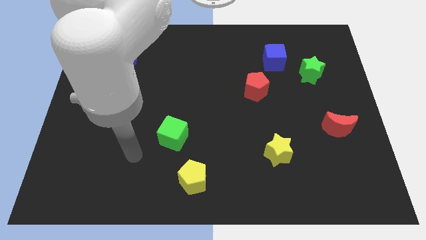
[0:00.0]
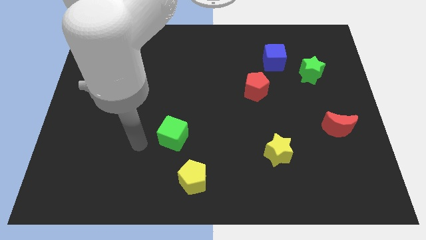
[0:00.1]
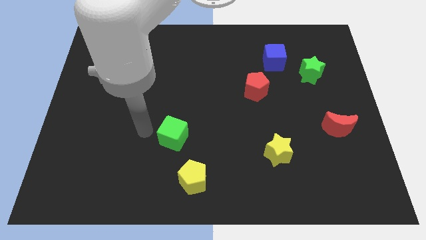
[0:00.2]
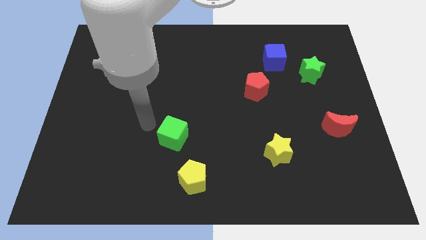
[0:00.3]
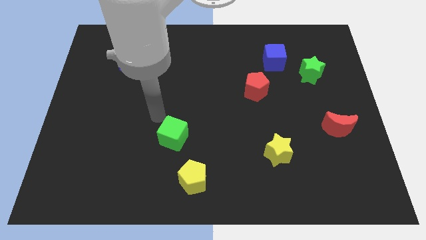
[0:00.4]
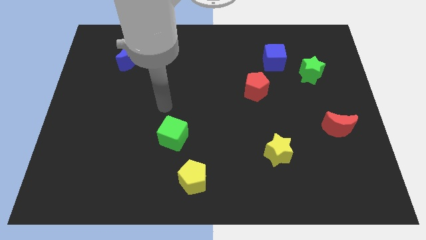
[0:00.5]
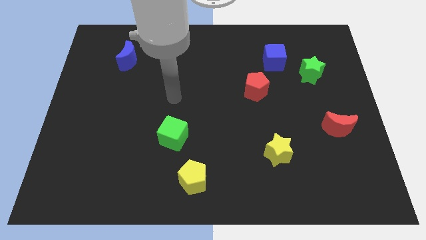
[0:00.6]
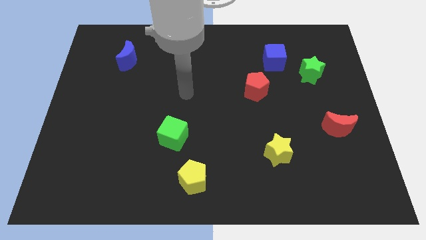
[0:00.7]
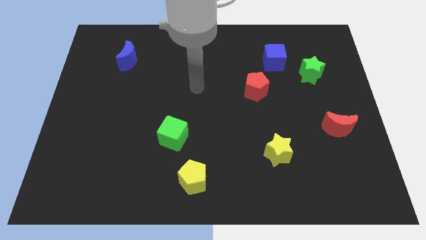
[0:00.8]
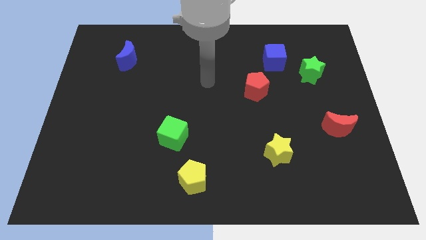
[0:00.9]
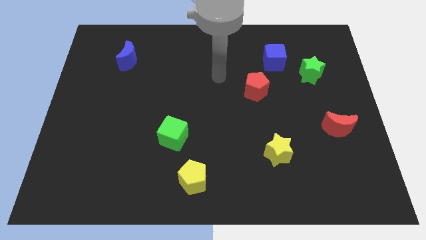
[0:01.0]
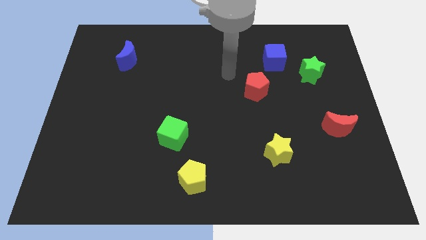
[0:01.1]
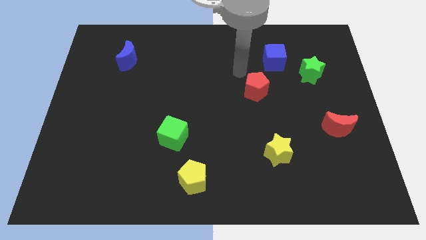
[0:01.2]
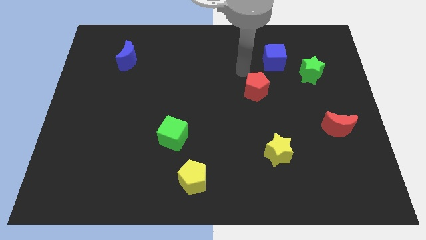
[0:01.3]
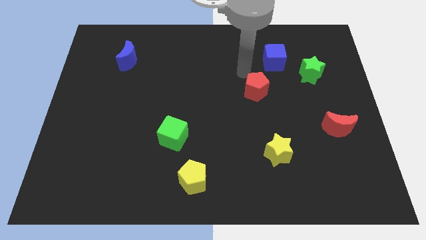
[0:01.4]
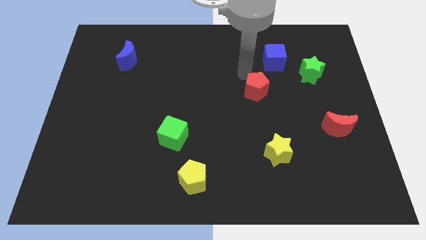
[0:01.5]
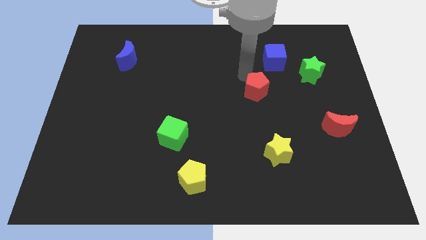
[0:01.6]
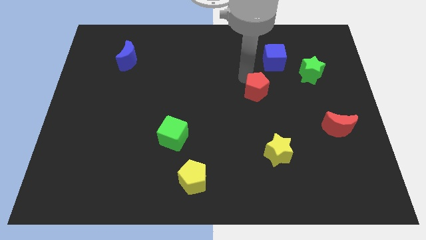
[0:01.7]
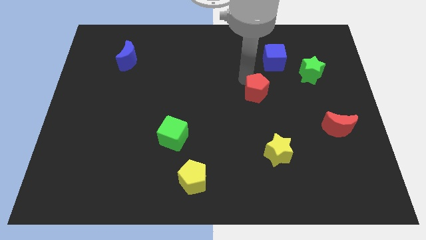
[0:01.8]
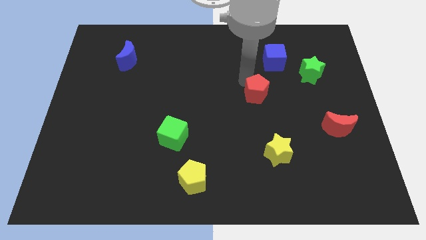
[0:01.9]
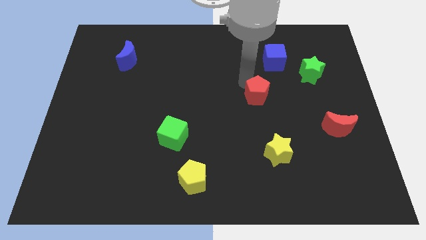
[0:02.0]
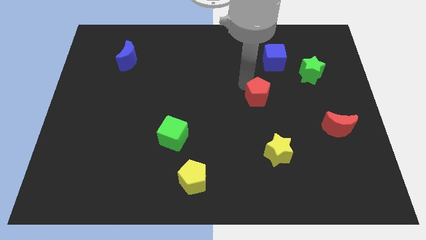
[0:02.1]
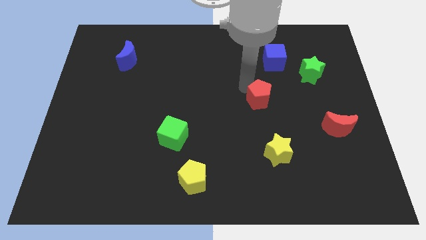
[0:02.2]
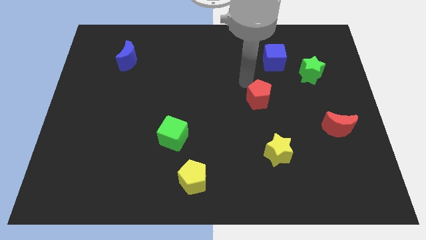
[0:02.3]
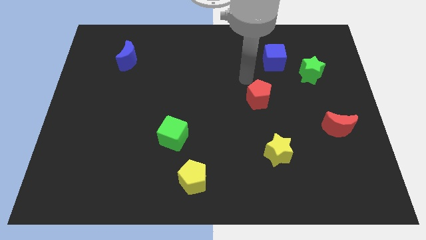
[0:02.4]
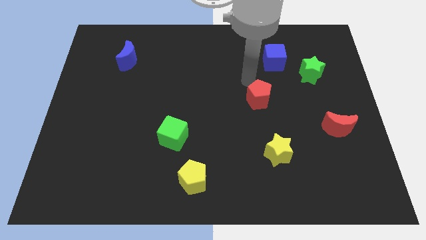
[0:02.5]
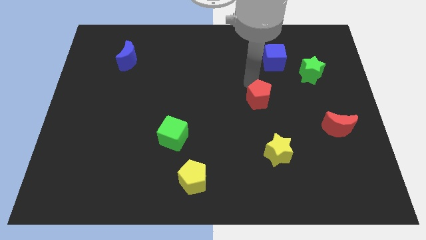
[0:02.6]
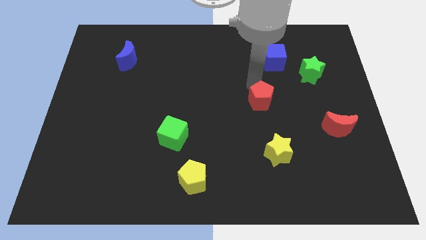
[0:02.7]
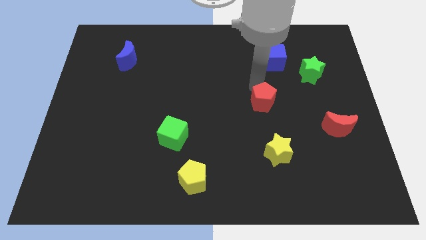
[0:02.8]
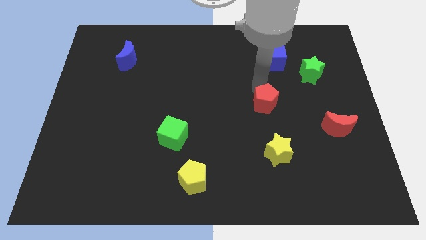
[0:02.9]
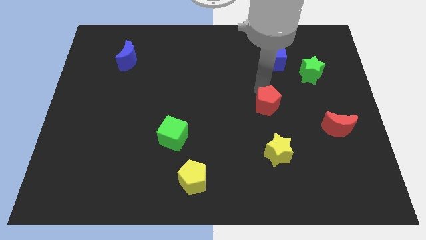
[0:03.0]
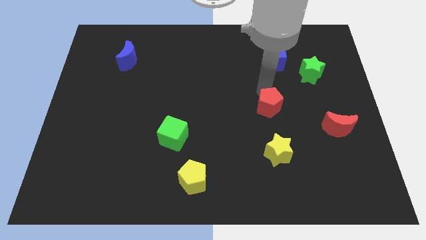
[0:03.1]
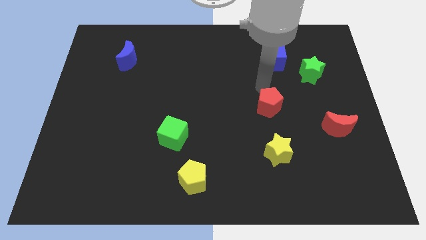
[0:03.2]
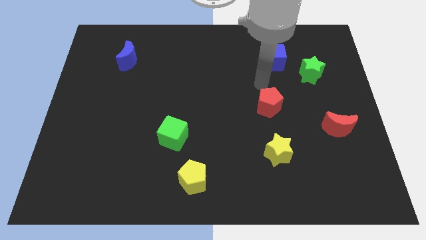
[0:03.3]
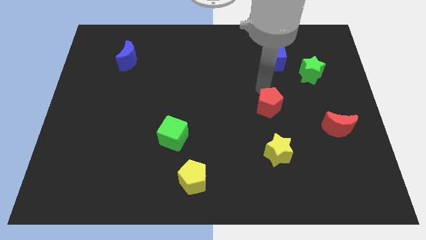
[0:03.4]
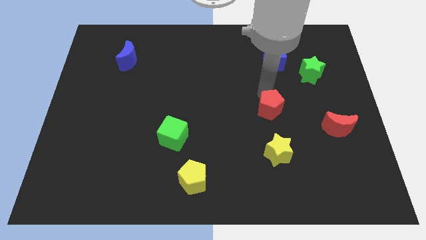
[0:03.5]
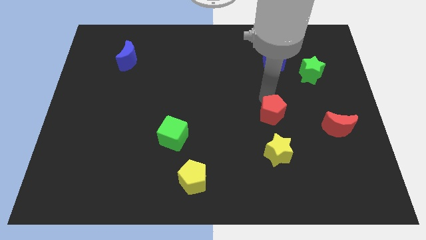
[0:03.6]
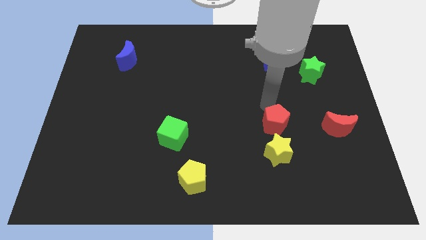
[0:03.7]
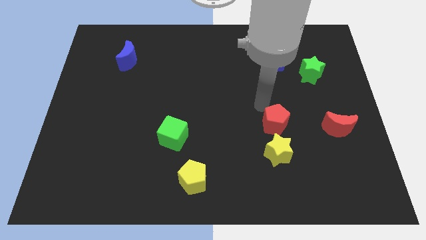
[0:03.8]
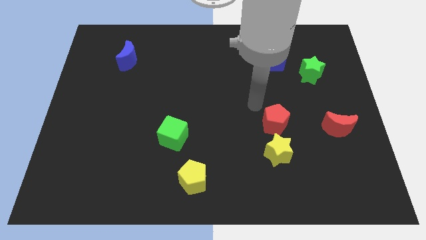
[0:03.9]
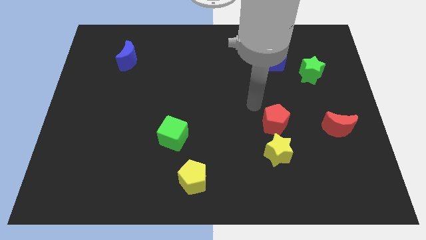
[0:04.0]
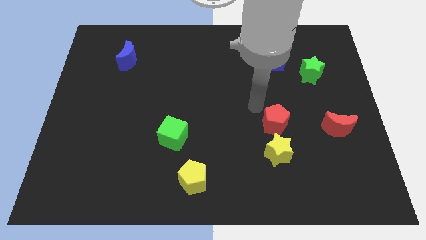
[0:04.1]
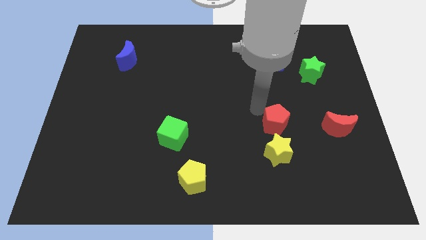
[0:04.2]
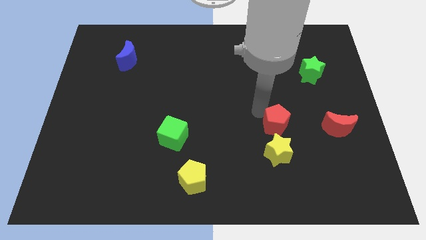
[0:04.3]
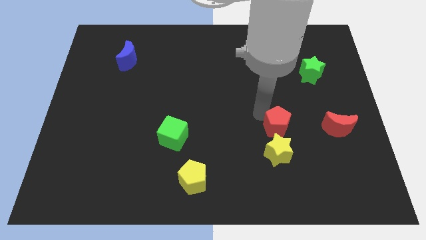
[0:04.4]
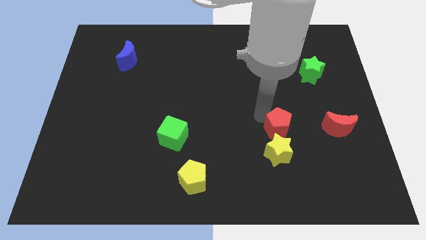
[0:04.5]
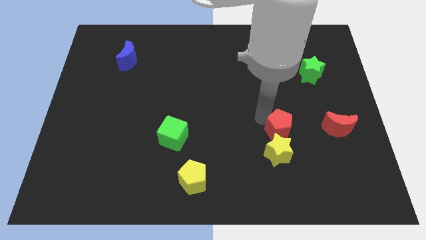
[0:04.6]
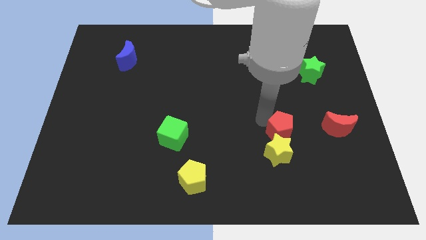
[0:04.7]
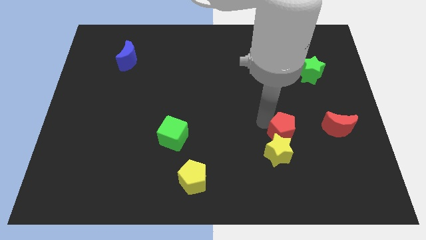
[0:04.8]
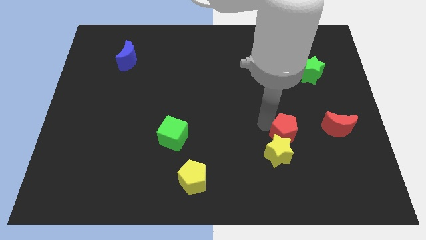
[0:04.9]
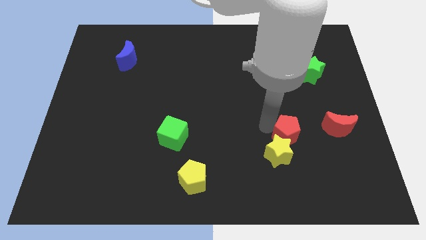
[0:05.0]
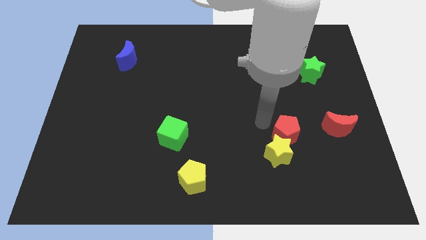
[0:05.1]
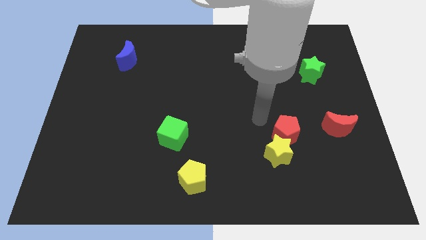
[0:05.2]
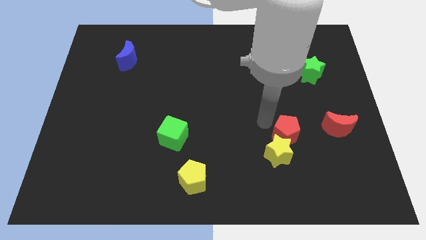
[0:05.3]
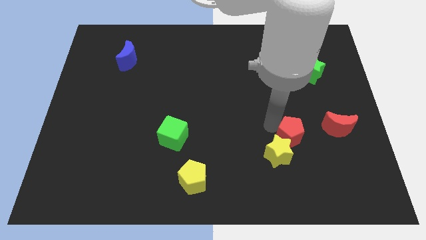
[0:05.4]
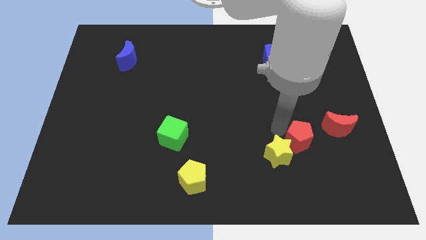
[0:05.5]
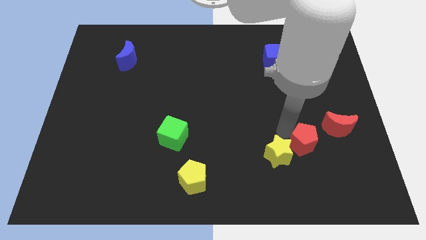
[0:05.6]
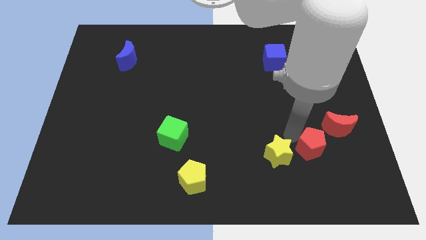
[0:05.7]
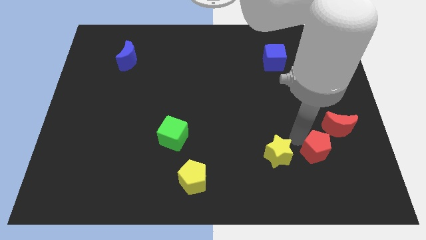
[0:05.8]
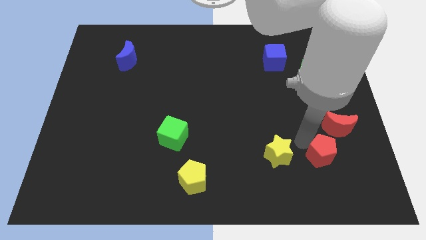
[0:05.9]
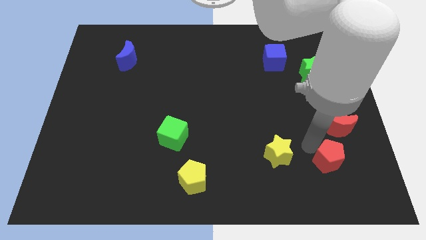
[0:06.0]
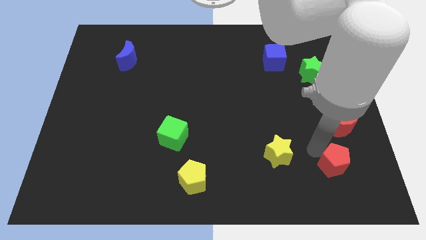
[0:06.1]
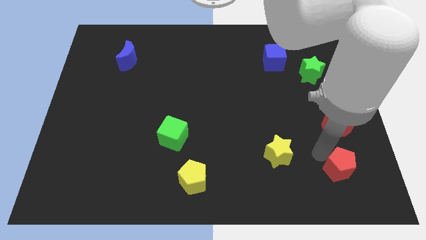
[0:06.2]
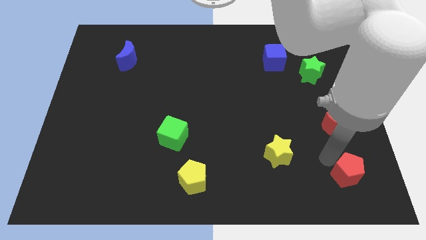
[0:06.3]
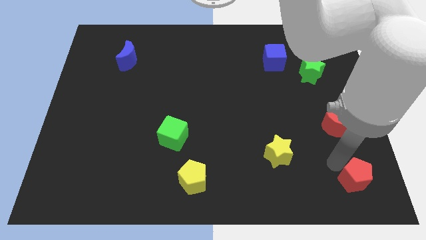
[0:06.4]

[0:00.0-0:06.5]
push the red pentagon to the lower right corner
